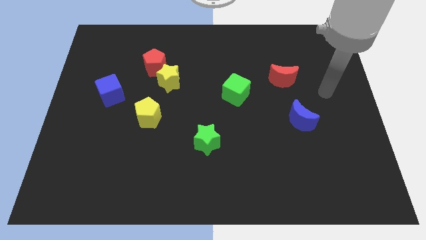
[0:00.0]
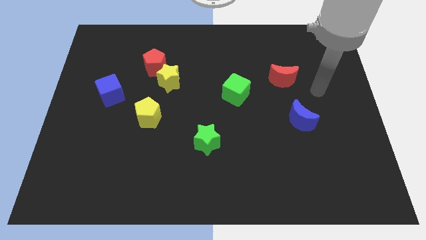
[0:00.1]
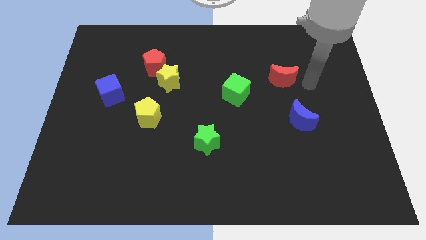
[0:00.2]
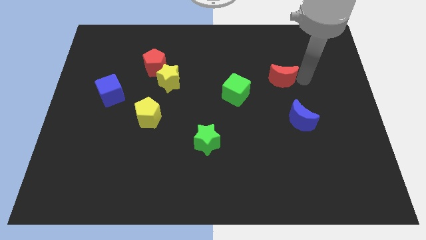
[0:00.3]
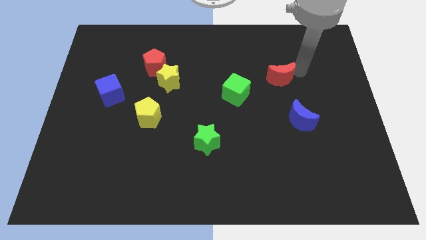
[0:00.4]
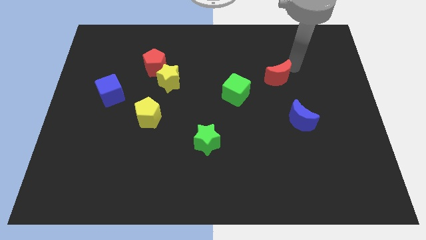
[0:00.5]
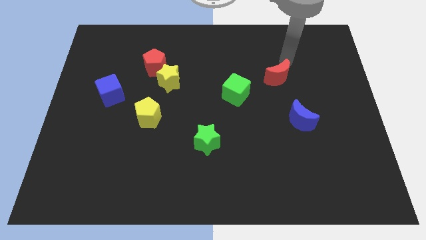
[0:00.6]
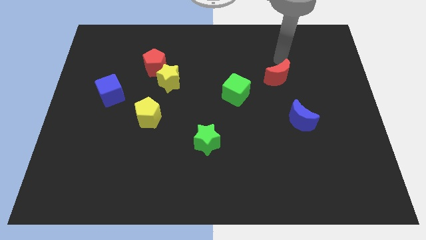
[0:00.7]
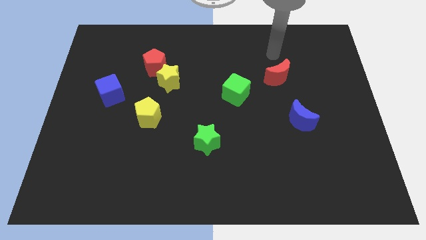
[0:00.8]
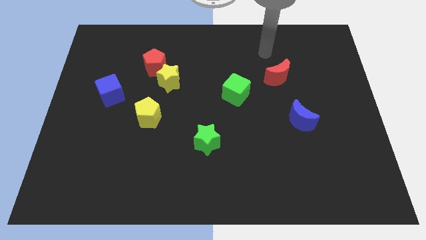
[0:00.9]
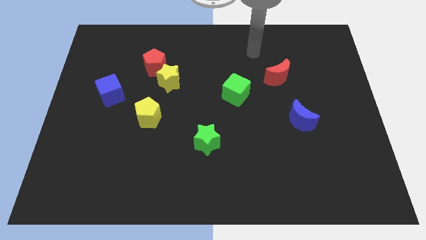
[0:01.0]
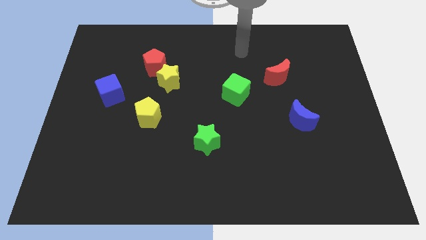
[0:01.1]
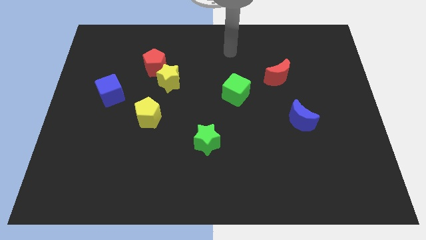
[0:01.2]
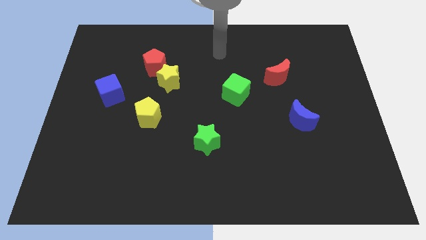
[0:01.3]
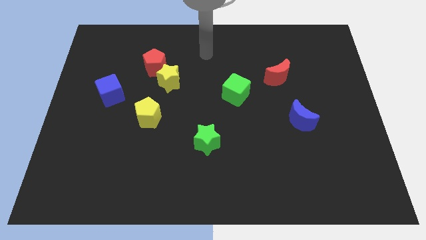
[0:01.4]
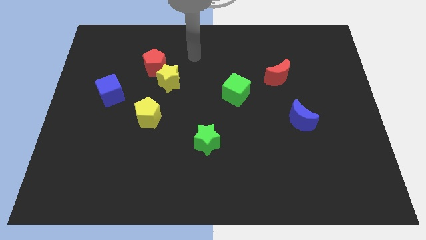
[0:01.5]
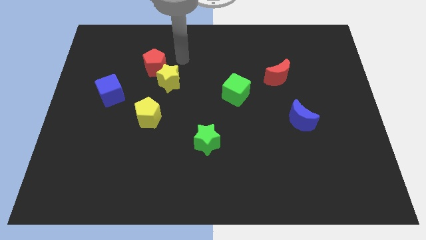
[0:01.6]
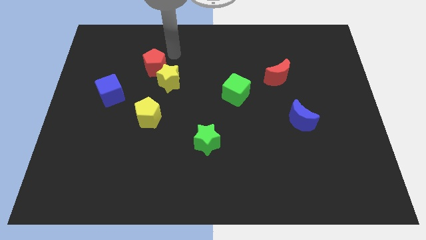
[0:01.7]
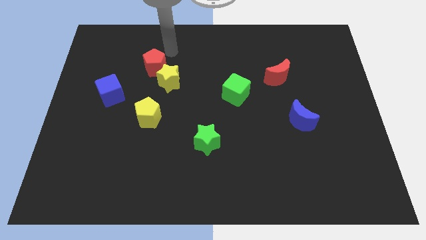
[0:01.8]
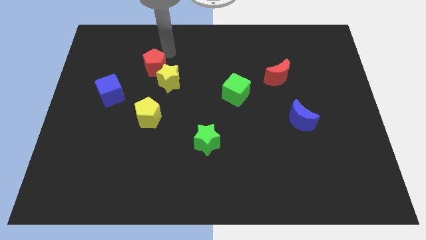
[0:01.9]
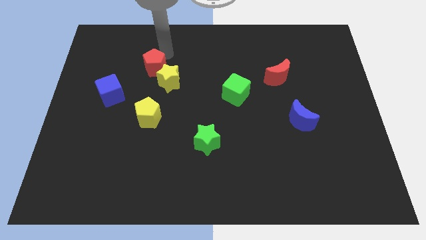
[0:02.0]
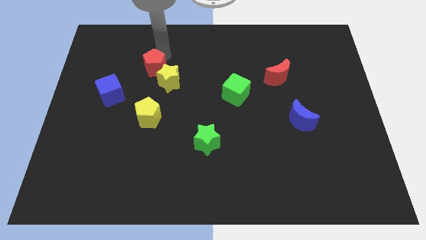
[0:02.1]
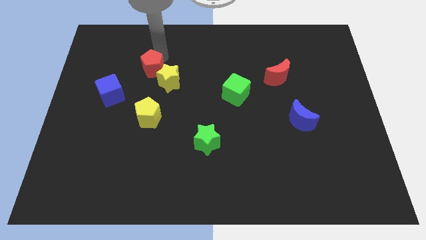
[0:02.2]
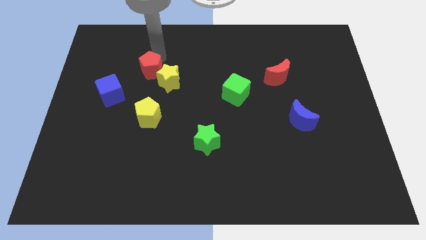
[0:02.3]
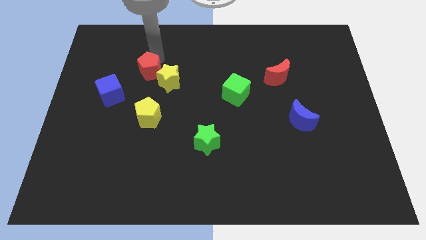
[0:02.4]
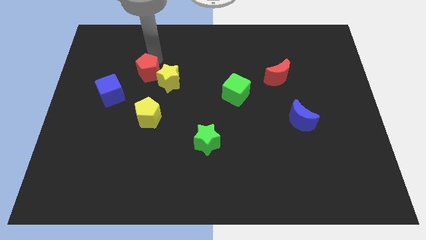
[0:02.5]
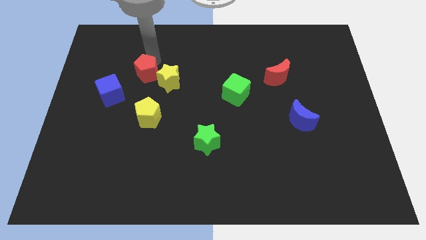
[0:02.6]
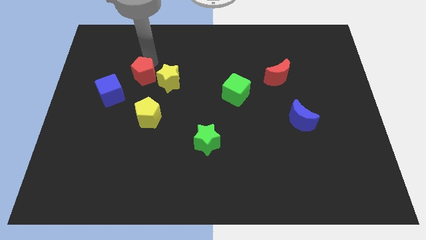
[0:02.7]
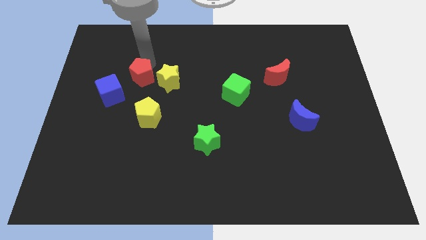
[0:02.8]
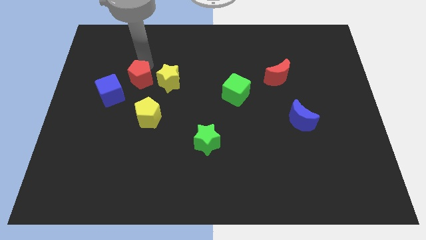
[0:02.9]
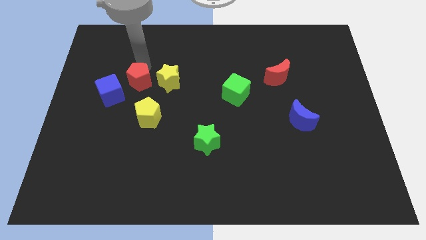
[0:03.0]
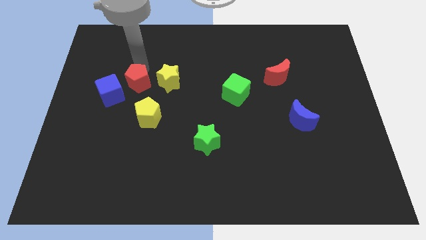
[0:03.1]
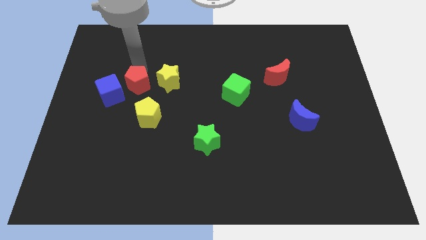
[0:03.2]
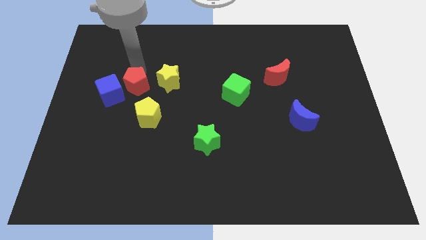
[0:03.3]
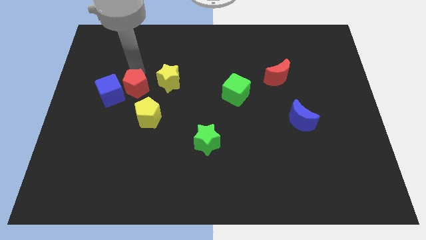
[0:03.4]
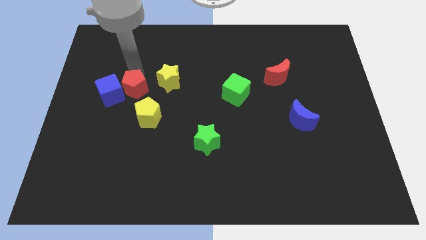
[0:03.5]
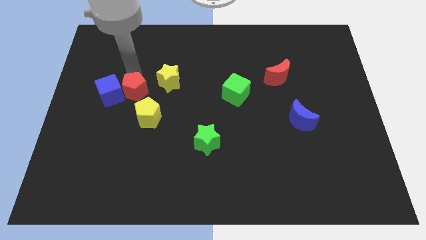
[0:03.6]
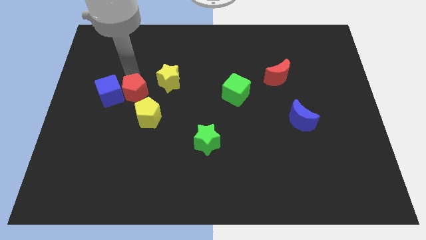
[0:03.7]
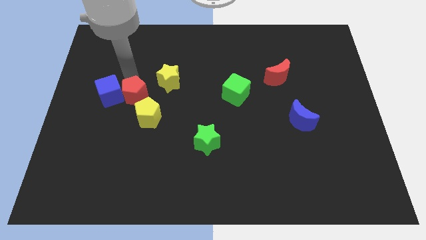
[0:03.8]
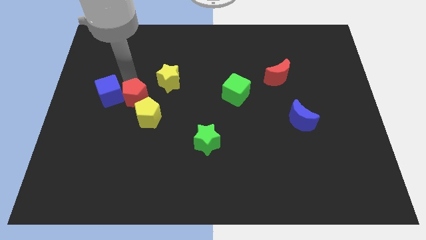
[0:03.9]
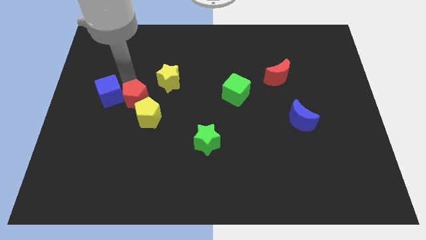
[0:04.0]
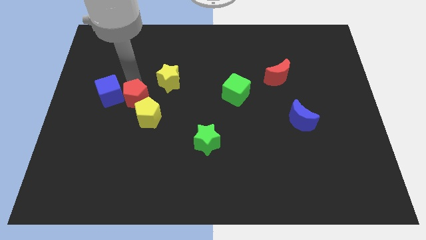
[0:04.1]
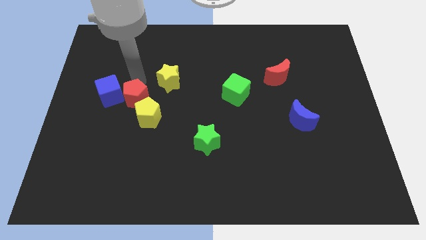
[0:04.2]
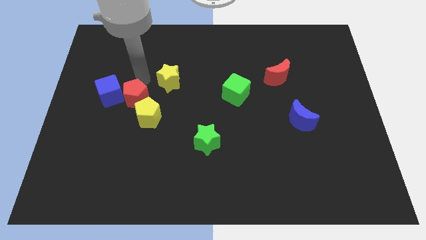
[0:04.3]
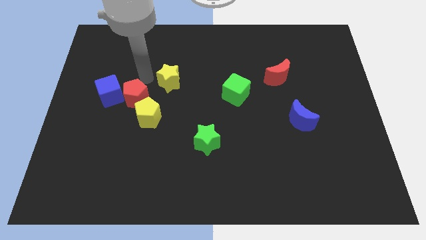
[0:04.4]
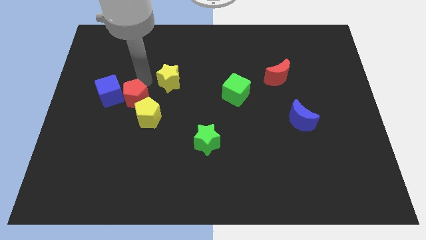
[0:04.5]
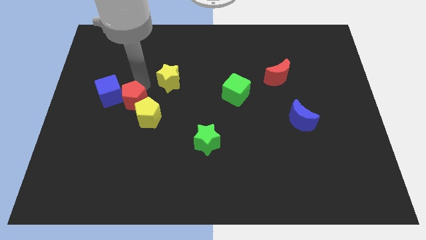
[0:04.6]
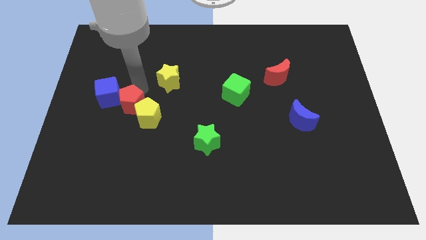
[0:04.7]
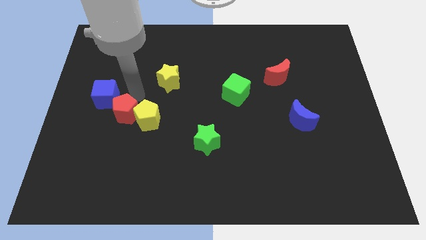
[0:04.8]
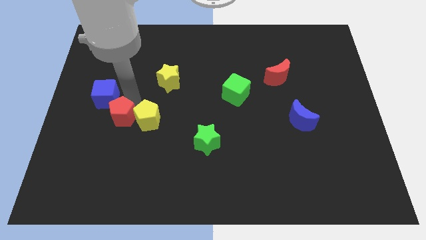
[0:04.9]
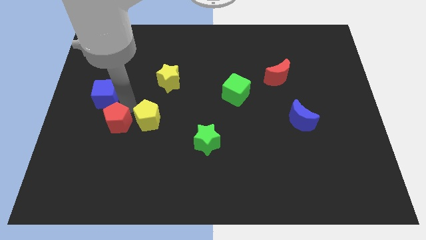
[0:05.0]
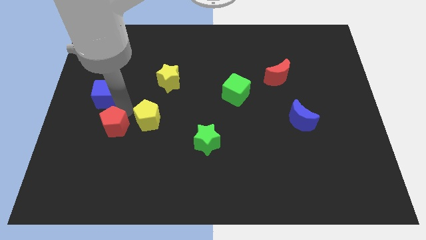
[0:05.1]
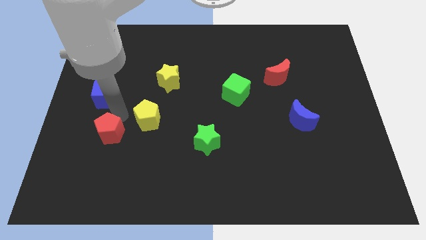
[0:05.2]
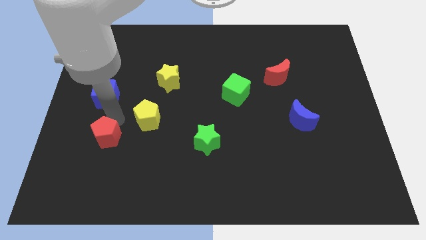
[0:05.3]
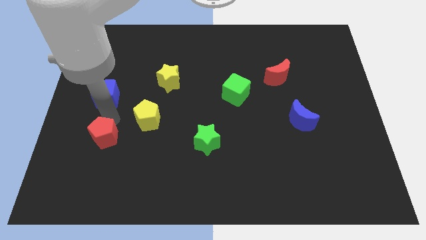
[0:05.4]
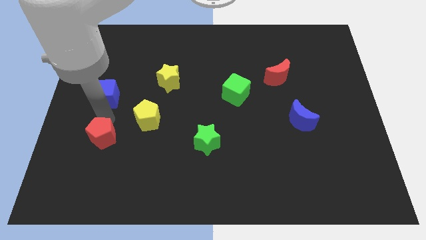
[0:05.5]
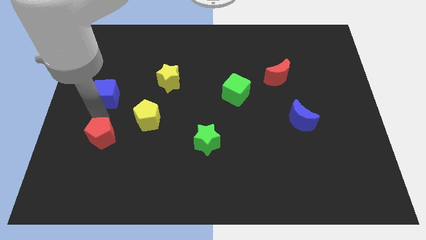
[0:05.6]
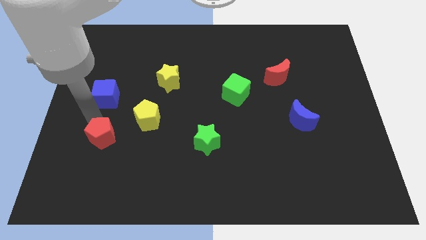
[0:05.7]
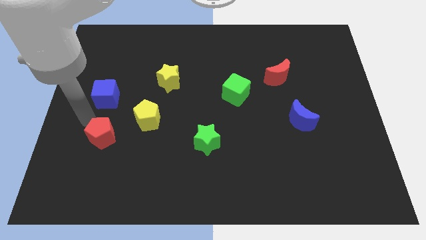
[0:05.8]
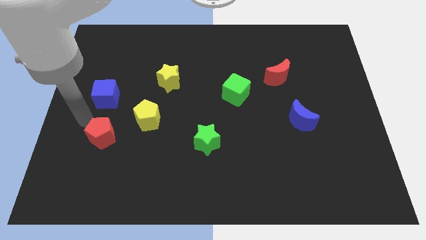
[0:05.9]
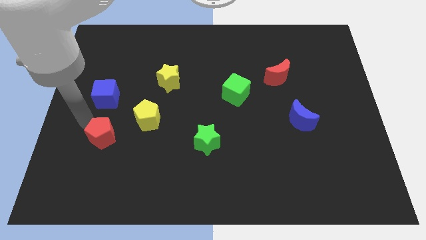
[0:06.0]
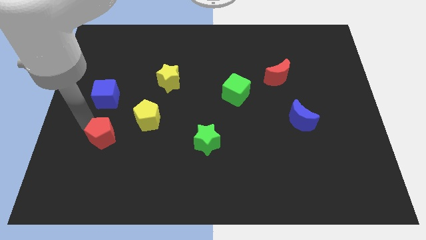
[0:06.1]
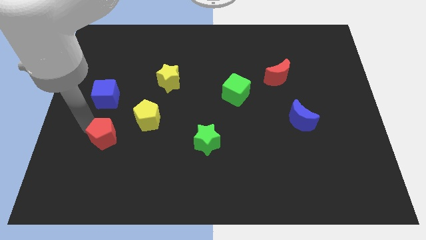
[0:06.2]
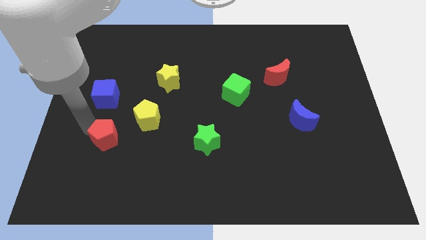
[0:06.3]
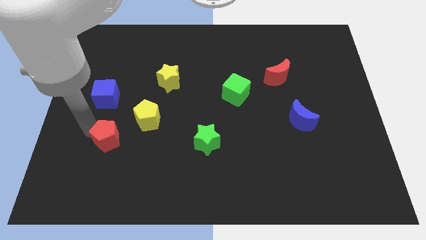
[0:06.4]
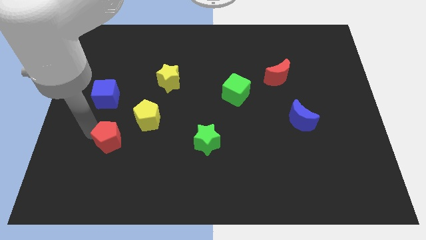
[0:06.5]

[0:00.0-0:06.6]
push the red pentagon down

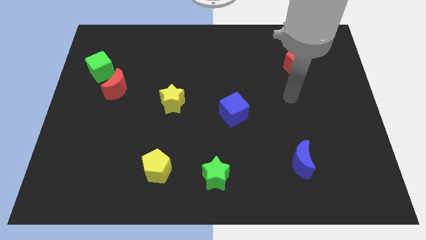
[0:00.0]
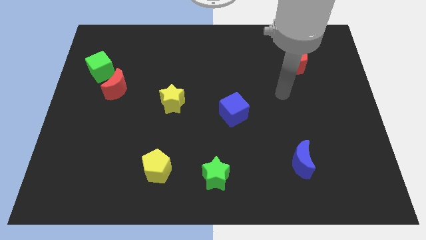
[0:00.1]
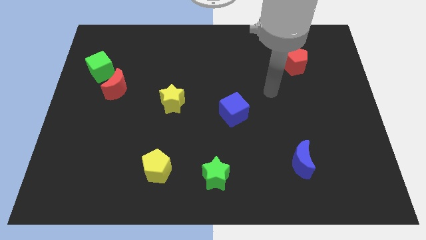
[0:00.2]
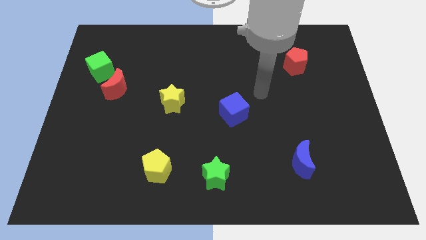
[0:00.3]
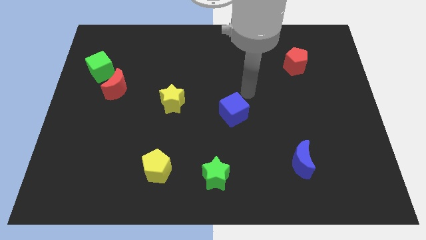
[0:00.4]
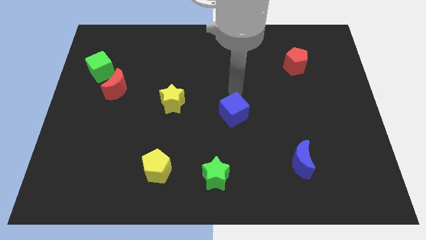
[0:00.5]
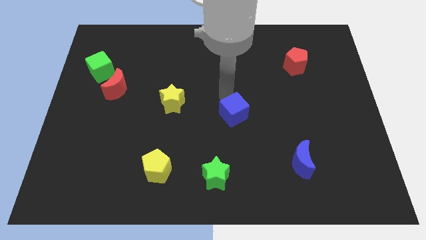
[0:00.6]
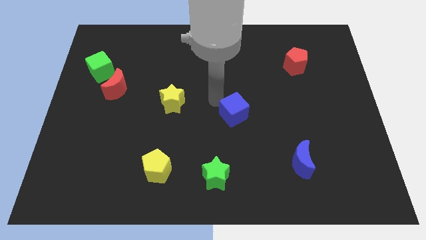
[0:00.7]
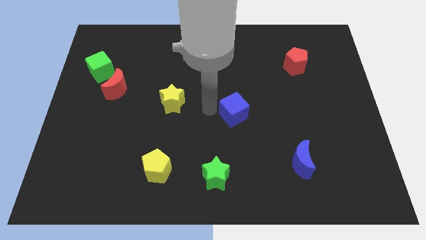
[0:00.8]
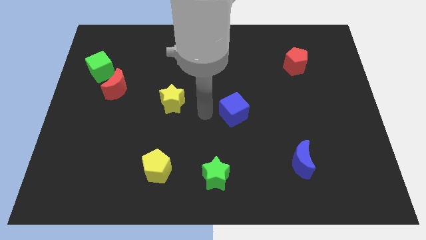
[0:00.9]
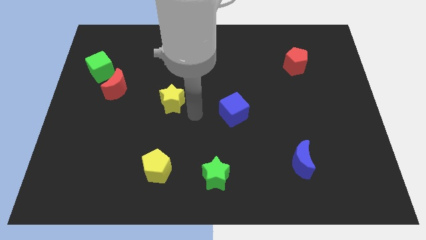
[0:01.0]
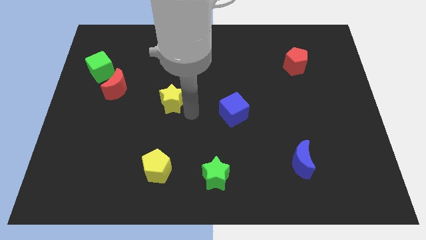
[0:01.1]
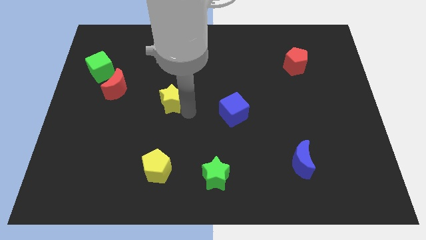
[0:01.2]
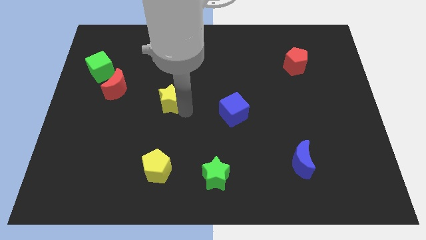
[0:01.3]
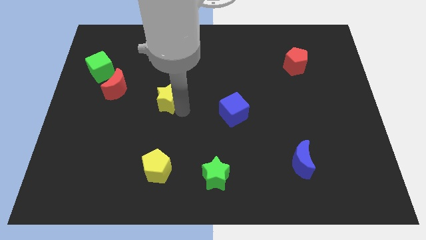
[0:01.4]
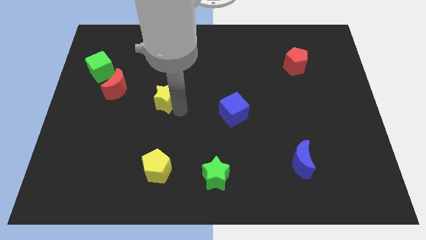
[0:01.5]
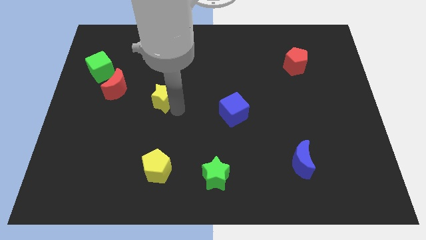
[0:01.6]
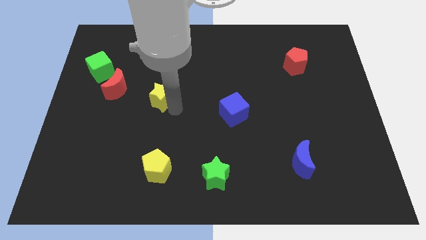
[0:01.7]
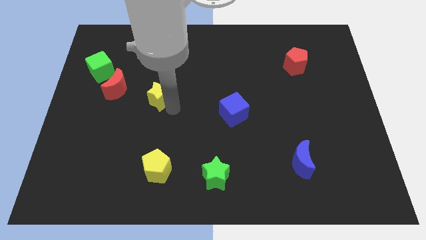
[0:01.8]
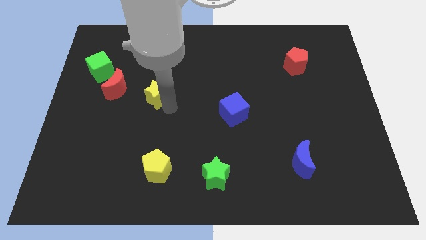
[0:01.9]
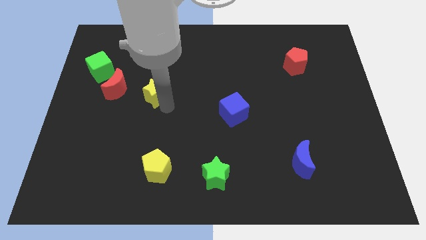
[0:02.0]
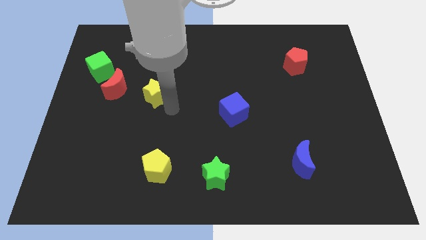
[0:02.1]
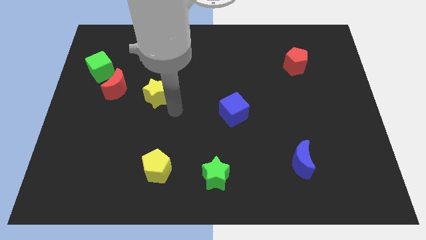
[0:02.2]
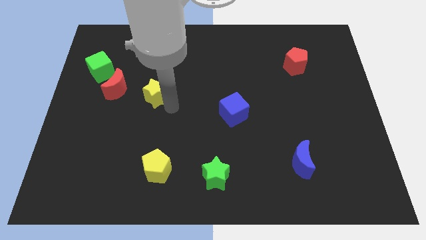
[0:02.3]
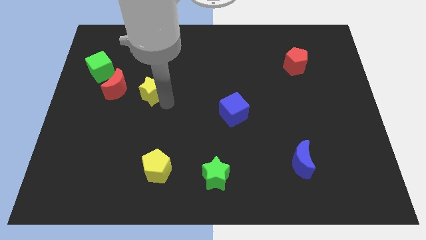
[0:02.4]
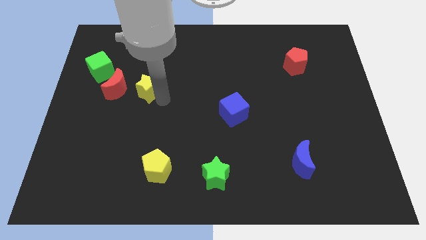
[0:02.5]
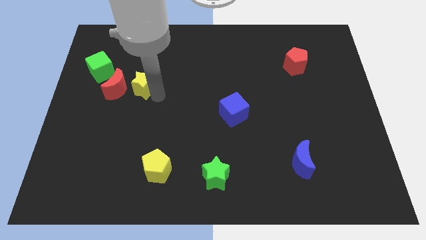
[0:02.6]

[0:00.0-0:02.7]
slightly push the yellow star diagonally upwards and left
